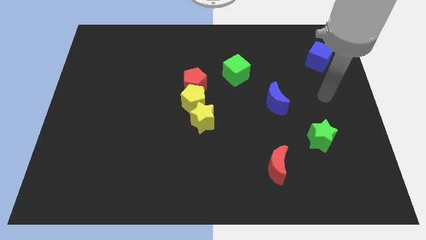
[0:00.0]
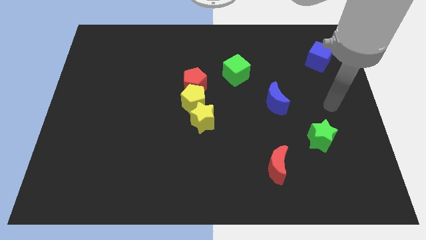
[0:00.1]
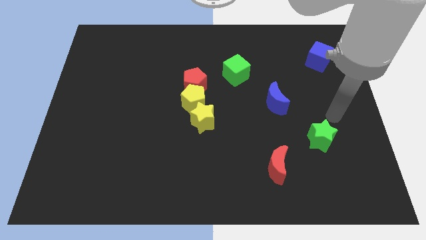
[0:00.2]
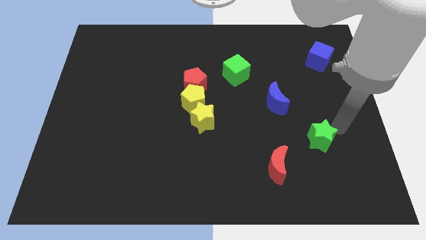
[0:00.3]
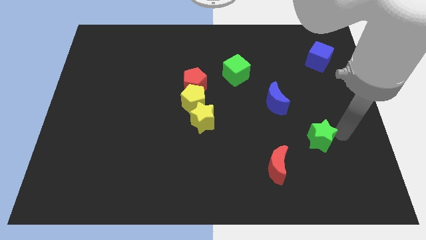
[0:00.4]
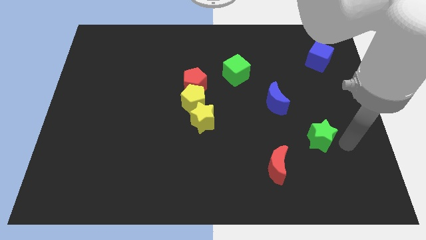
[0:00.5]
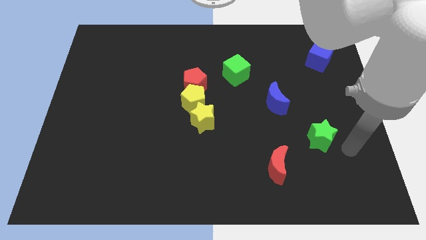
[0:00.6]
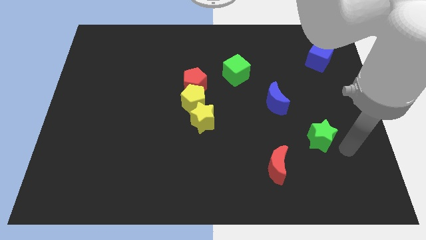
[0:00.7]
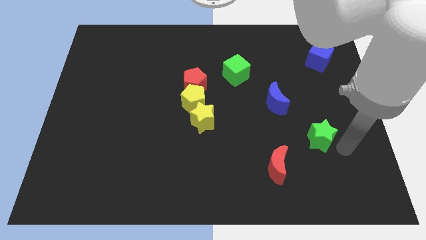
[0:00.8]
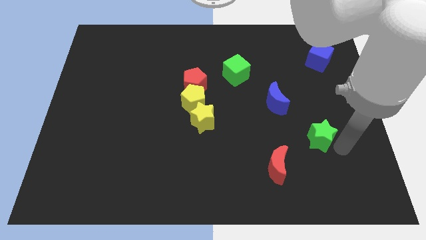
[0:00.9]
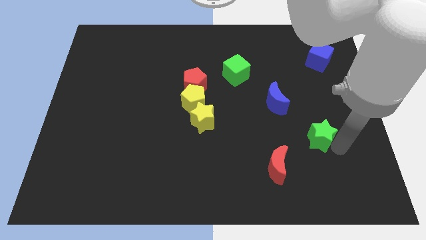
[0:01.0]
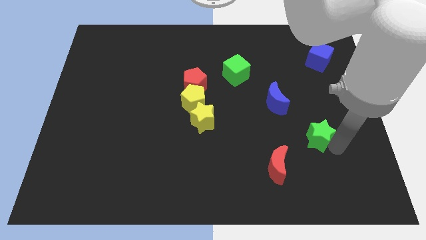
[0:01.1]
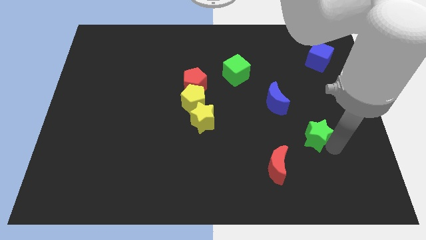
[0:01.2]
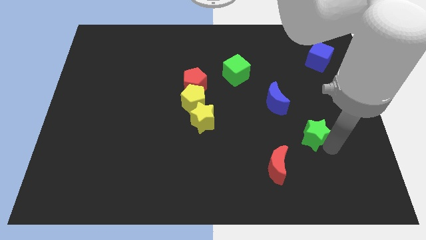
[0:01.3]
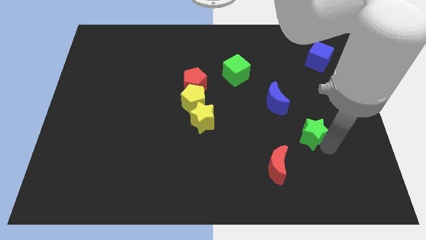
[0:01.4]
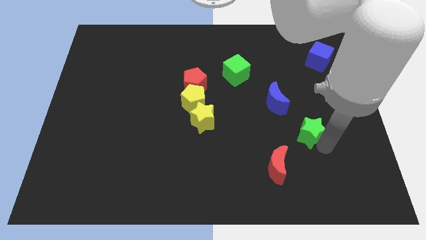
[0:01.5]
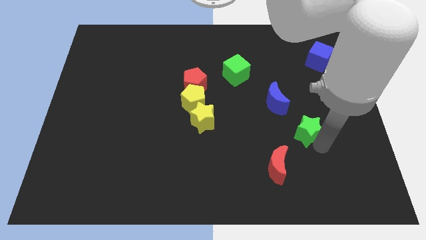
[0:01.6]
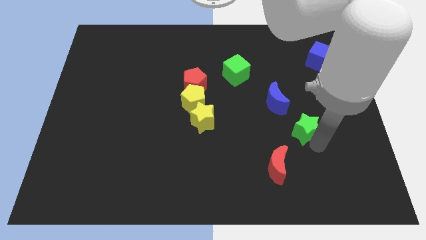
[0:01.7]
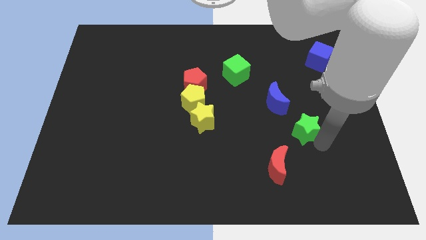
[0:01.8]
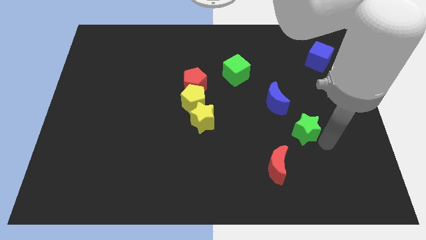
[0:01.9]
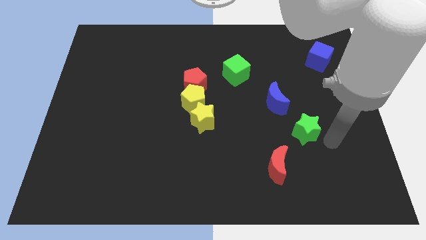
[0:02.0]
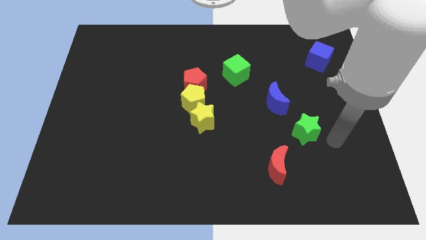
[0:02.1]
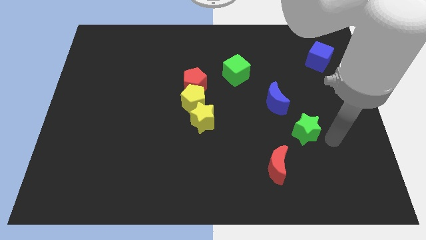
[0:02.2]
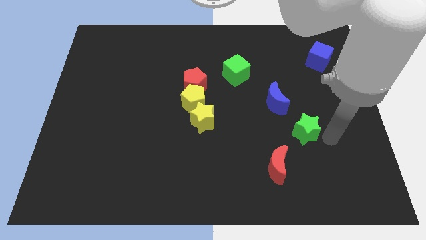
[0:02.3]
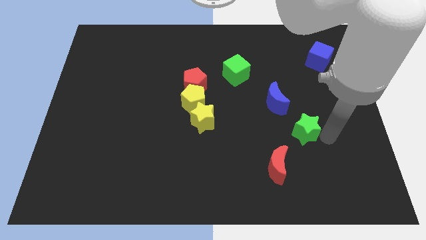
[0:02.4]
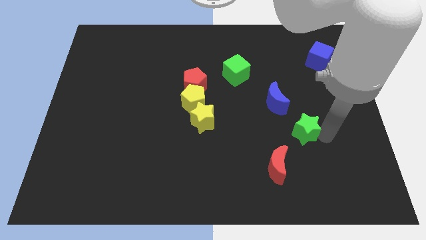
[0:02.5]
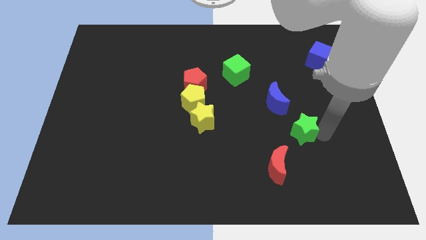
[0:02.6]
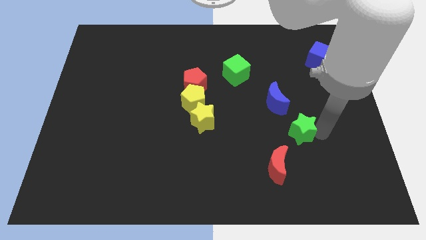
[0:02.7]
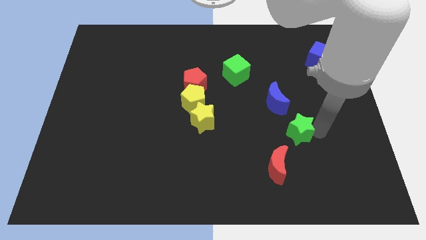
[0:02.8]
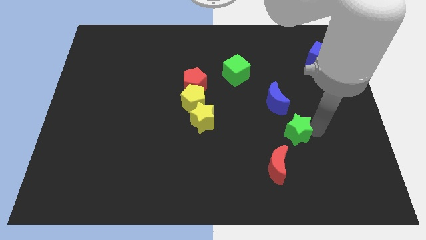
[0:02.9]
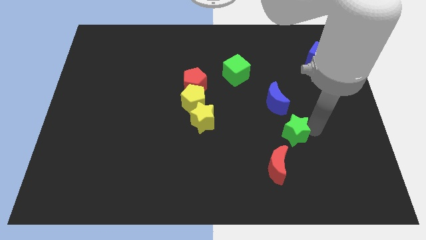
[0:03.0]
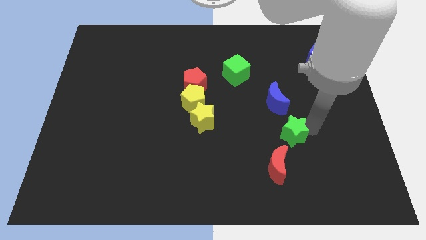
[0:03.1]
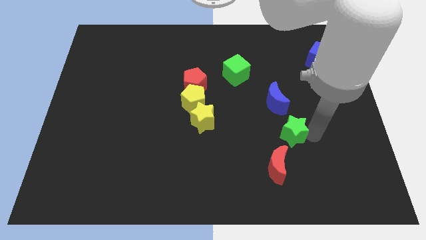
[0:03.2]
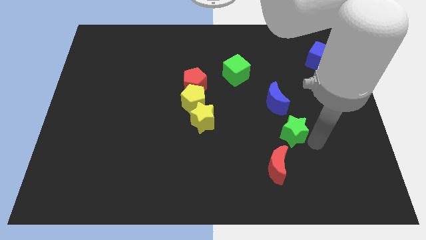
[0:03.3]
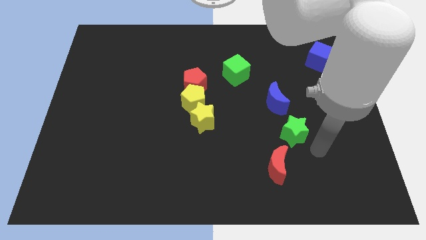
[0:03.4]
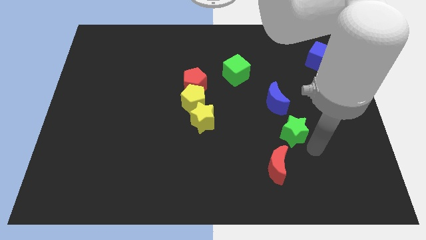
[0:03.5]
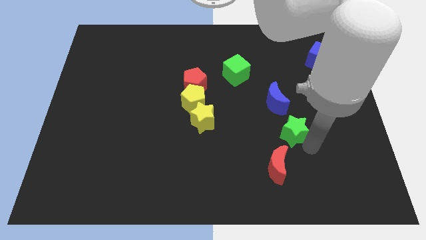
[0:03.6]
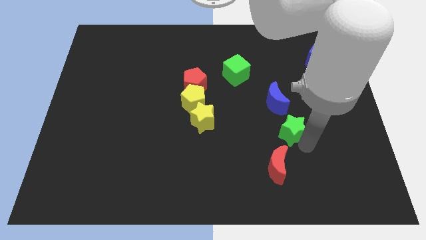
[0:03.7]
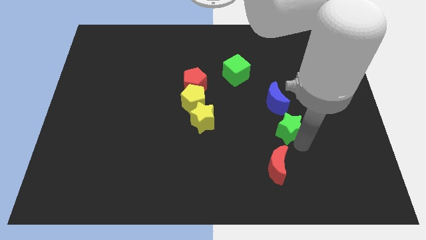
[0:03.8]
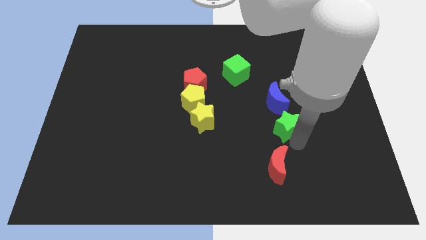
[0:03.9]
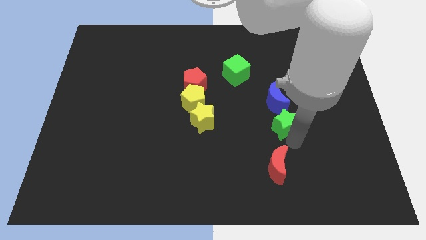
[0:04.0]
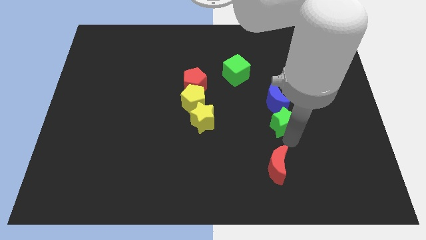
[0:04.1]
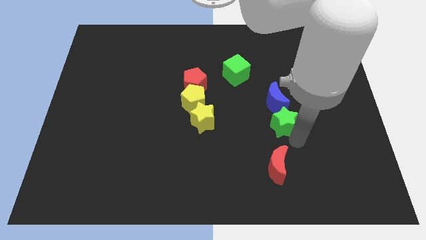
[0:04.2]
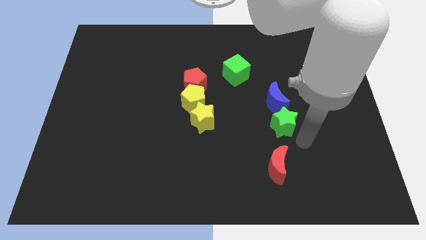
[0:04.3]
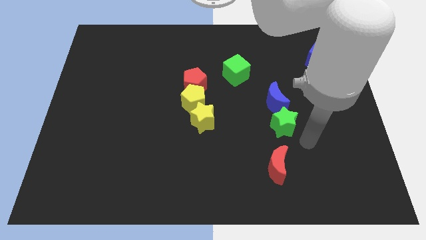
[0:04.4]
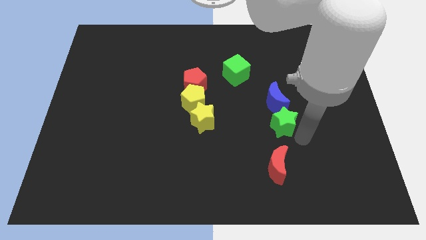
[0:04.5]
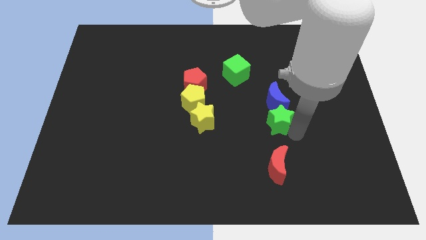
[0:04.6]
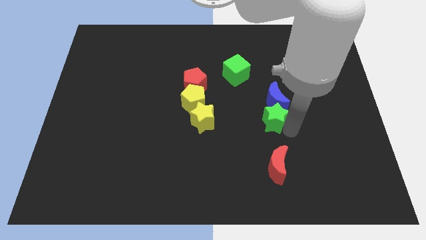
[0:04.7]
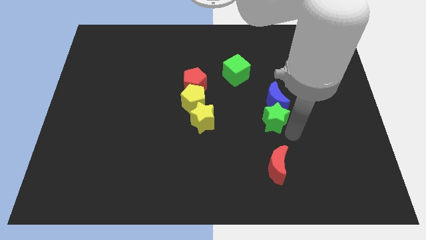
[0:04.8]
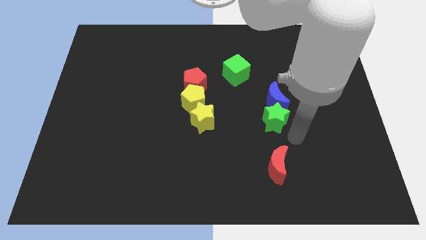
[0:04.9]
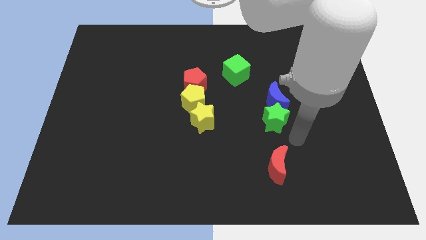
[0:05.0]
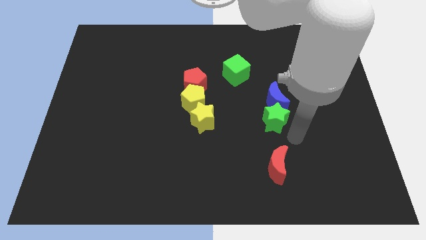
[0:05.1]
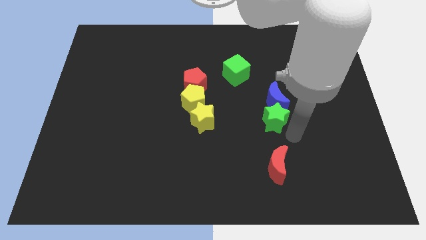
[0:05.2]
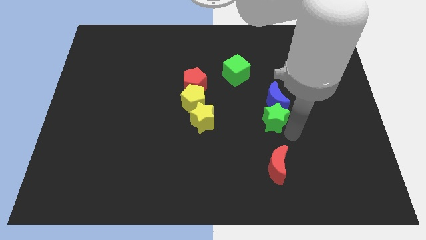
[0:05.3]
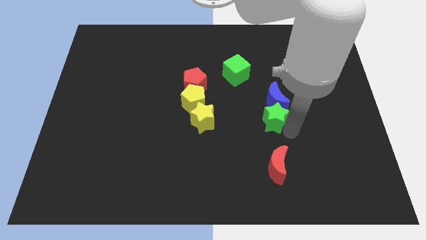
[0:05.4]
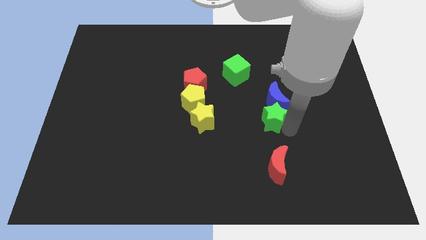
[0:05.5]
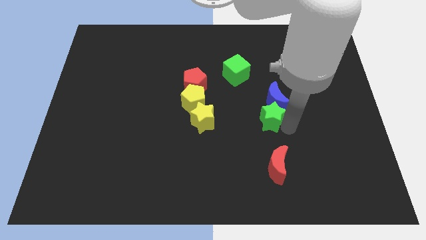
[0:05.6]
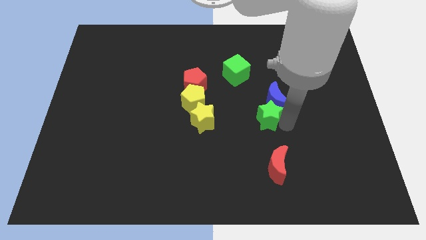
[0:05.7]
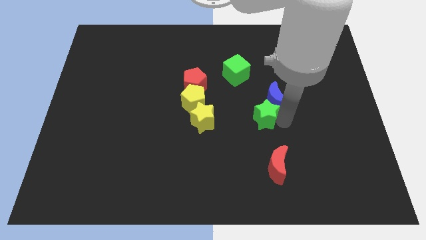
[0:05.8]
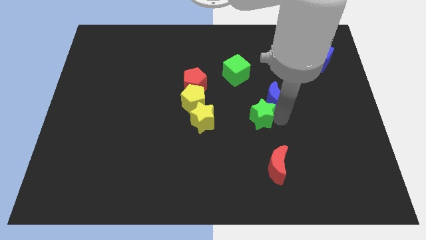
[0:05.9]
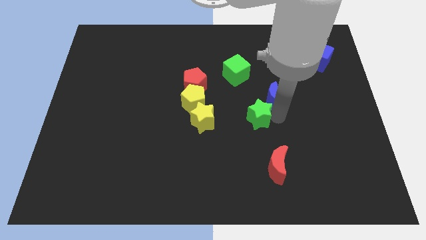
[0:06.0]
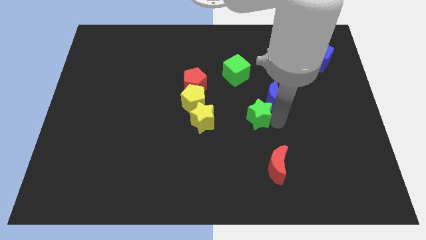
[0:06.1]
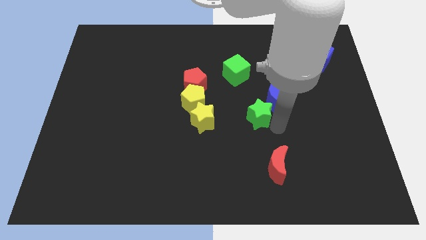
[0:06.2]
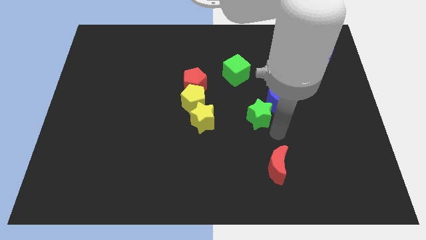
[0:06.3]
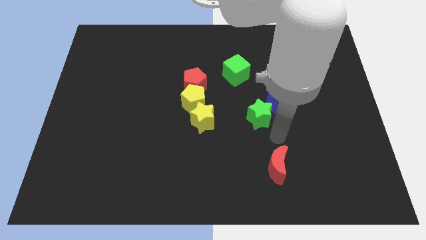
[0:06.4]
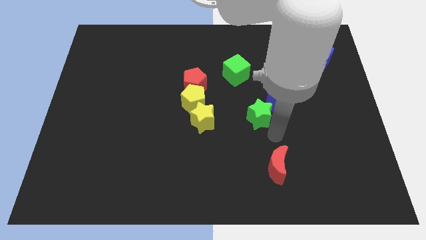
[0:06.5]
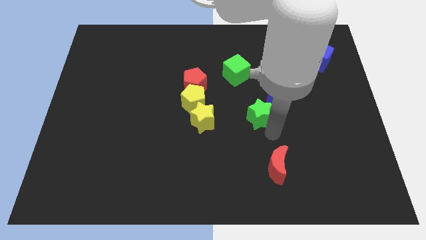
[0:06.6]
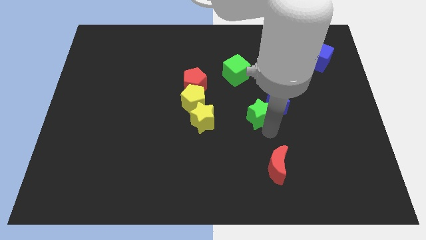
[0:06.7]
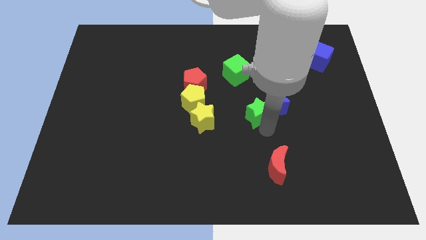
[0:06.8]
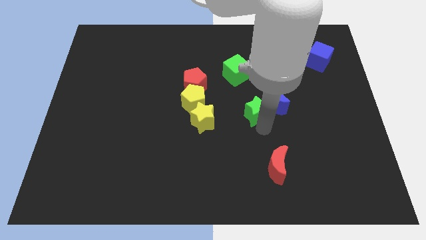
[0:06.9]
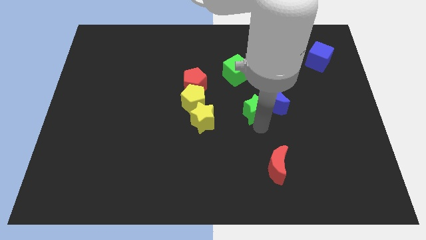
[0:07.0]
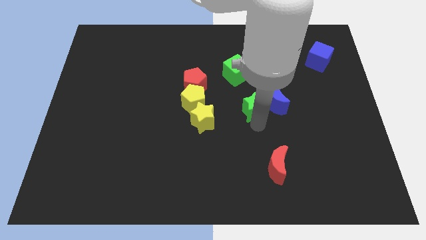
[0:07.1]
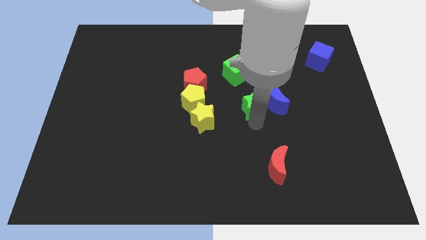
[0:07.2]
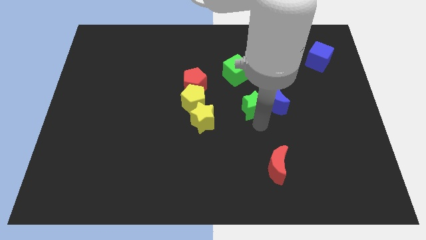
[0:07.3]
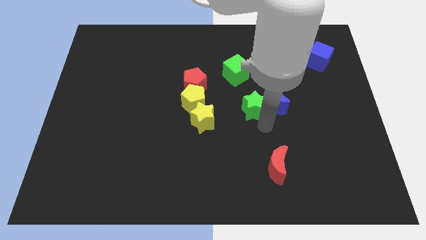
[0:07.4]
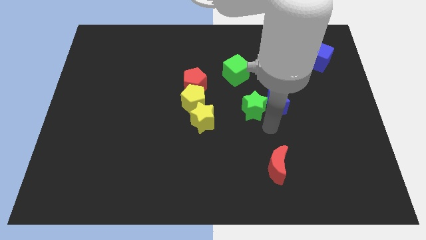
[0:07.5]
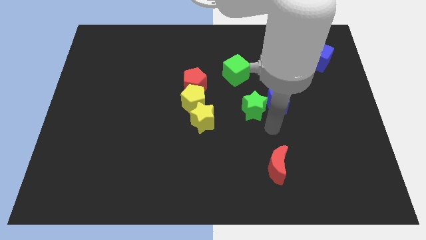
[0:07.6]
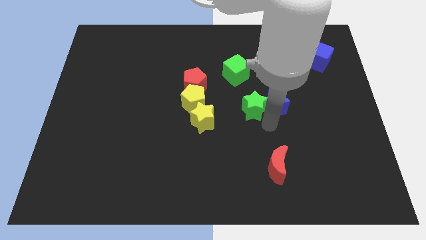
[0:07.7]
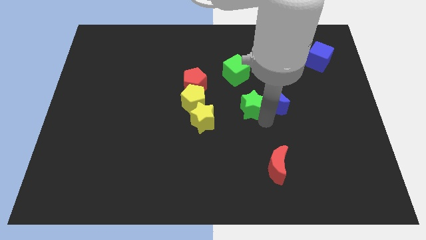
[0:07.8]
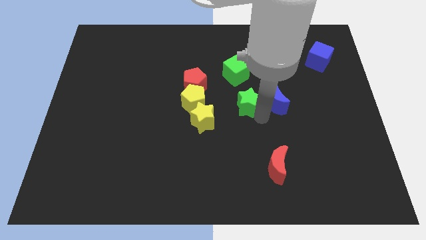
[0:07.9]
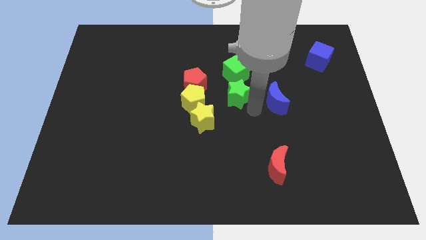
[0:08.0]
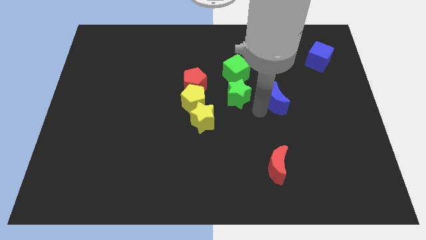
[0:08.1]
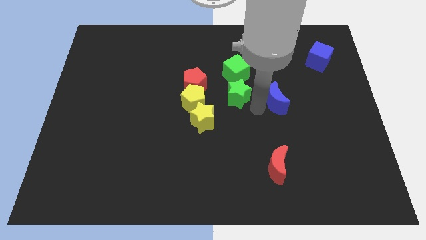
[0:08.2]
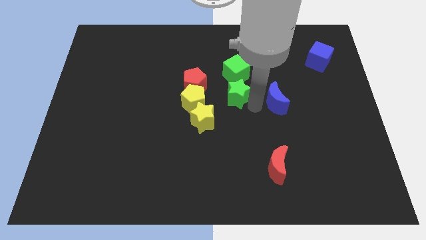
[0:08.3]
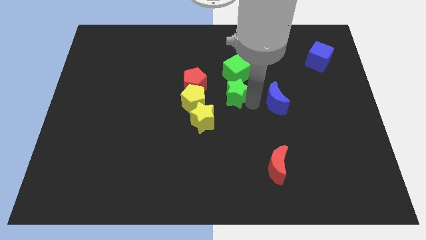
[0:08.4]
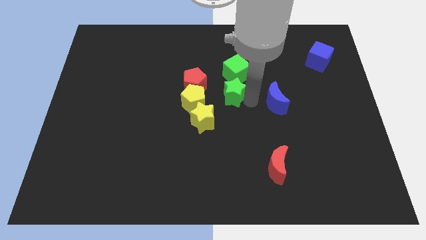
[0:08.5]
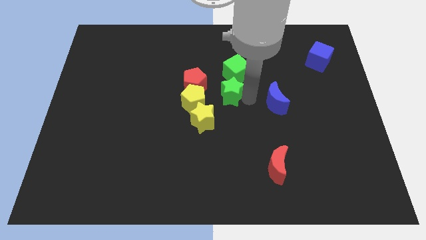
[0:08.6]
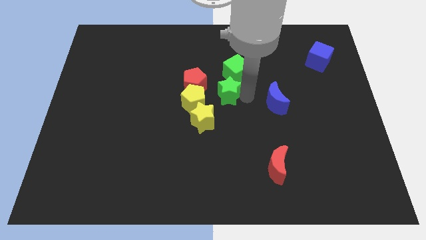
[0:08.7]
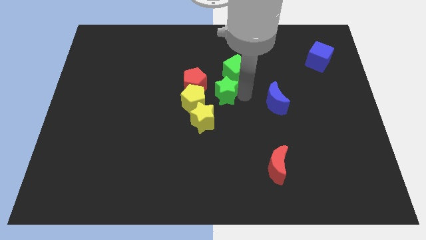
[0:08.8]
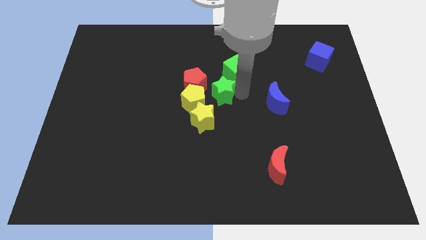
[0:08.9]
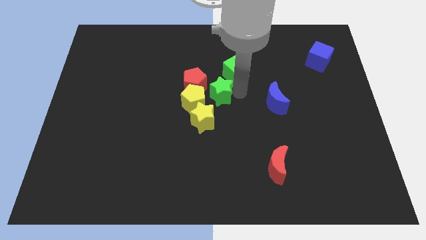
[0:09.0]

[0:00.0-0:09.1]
push the green star to the top side of the yellow star
